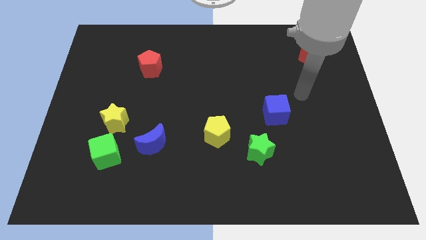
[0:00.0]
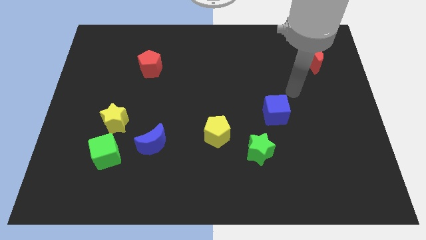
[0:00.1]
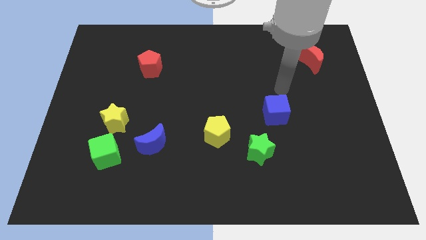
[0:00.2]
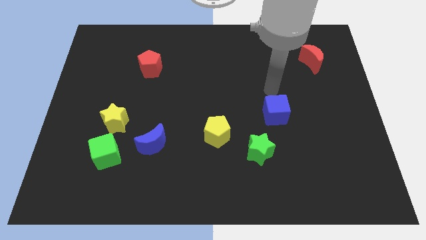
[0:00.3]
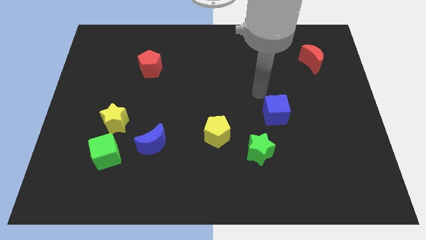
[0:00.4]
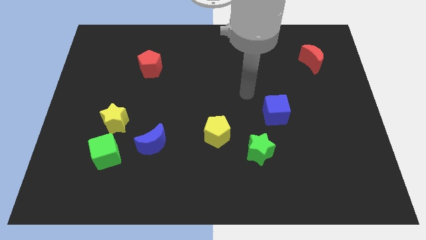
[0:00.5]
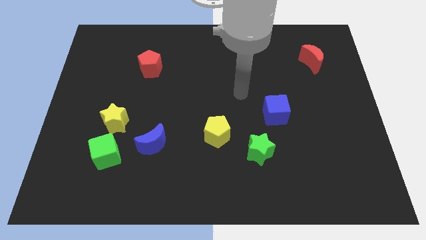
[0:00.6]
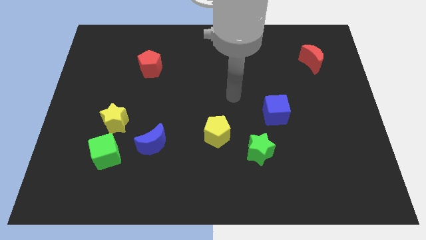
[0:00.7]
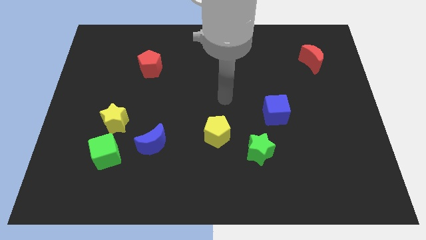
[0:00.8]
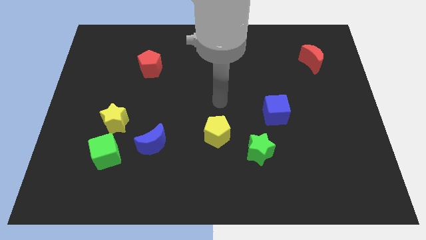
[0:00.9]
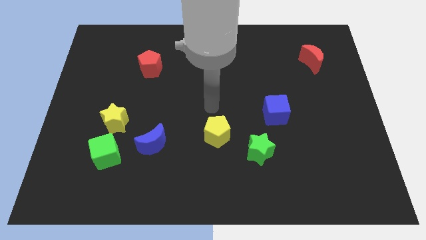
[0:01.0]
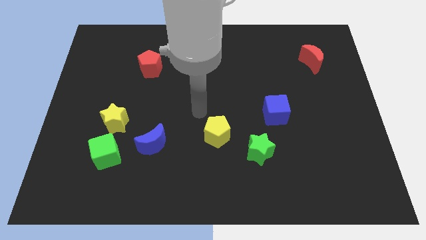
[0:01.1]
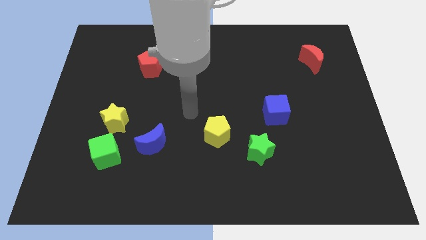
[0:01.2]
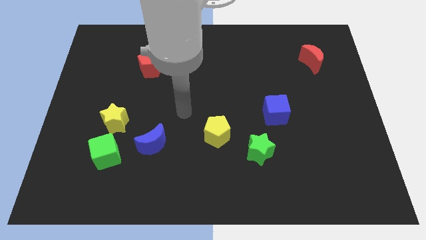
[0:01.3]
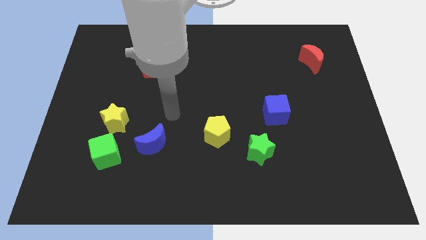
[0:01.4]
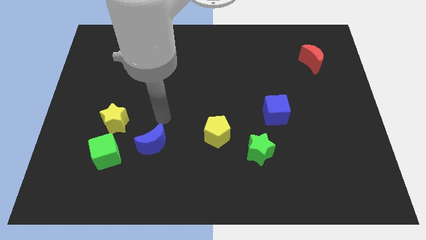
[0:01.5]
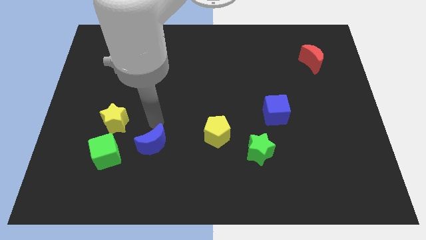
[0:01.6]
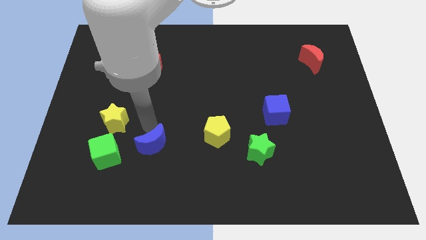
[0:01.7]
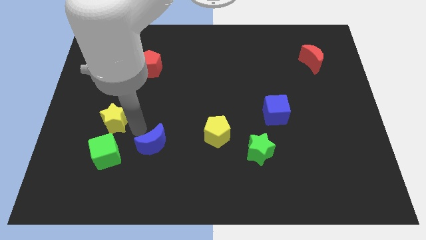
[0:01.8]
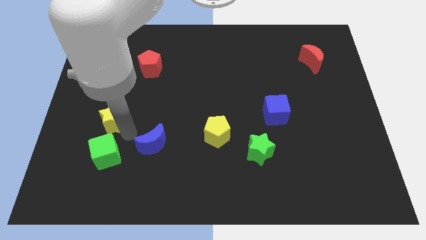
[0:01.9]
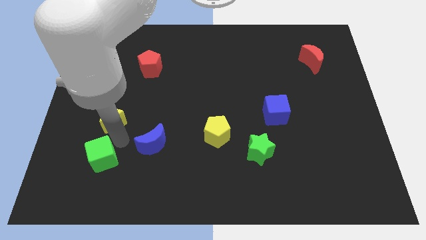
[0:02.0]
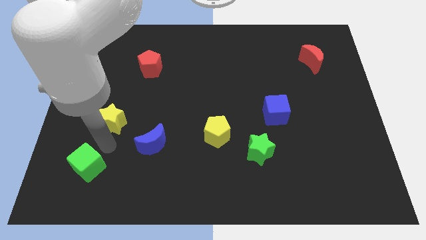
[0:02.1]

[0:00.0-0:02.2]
separate the yellow star from the green cube

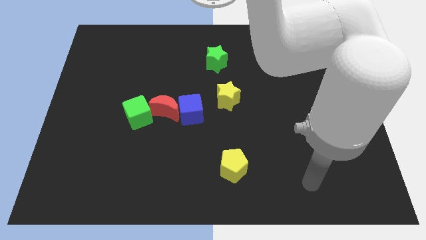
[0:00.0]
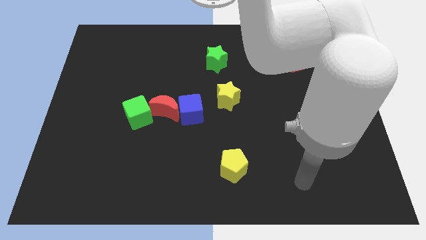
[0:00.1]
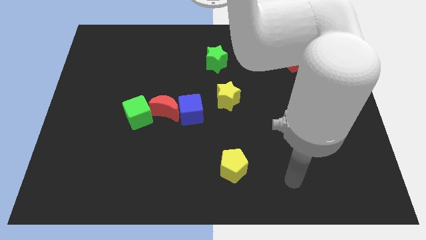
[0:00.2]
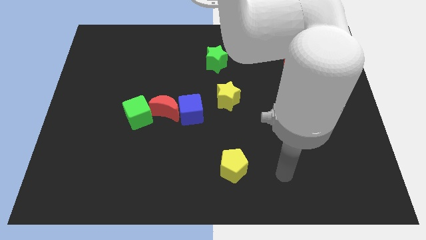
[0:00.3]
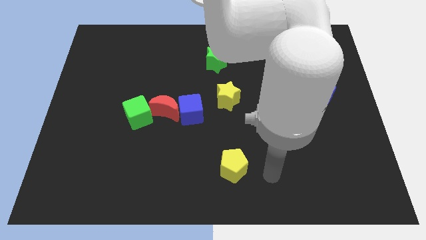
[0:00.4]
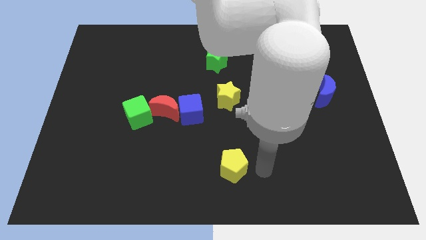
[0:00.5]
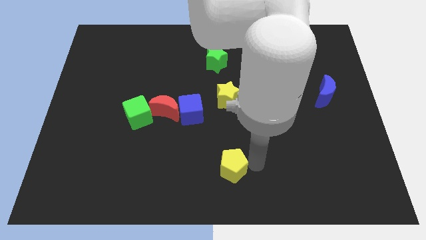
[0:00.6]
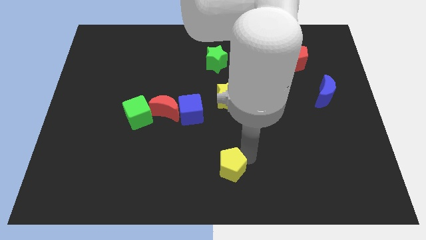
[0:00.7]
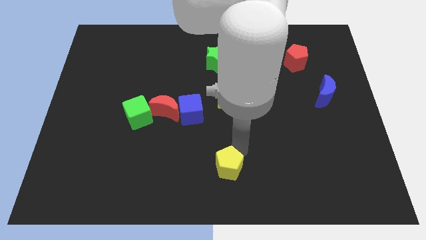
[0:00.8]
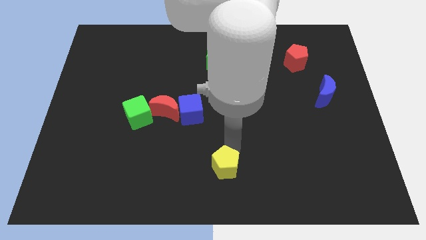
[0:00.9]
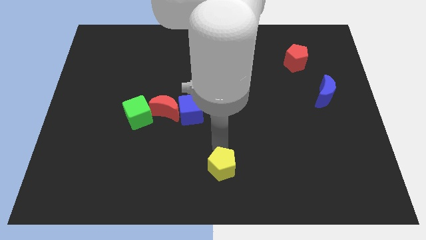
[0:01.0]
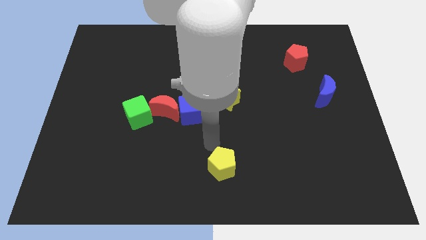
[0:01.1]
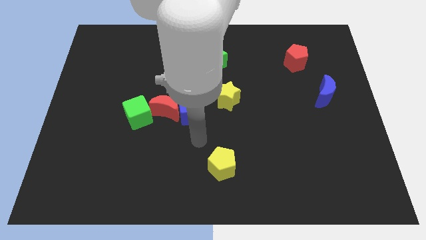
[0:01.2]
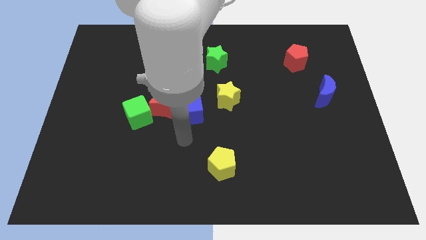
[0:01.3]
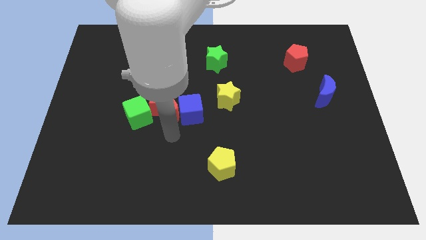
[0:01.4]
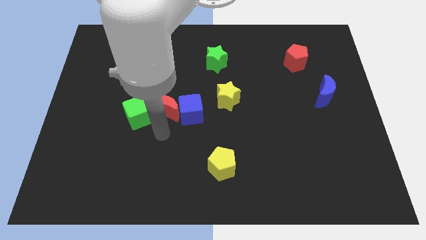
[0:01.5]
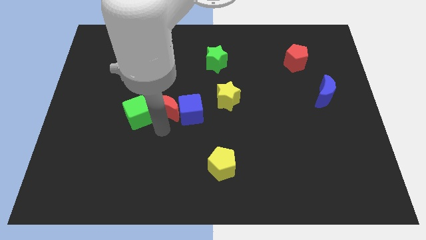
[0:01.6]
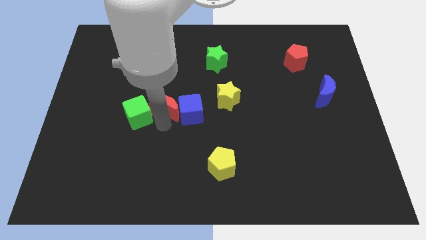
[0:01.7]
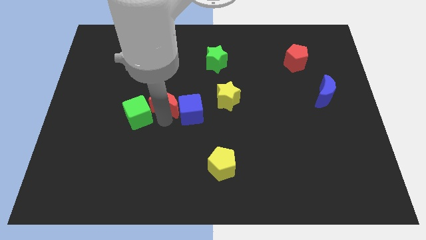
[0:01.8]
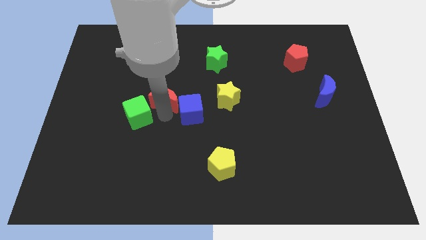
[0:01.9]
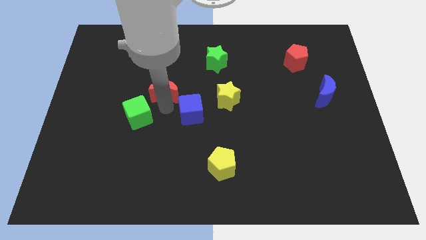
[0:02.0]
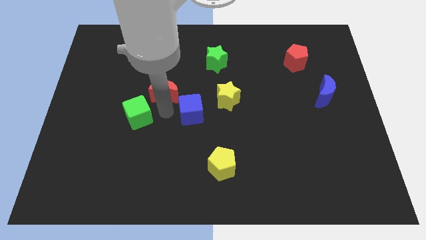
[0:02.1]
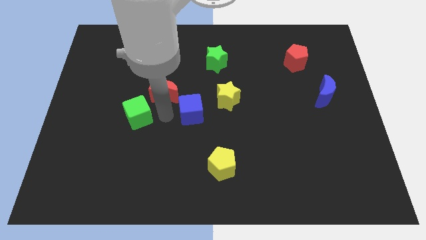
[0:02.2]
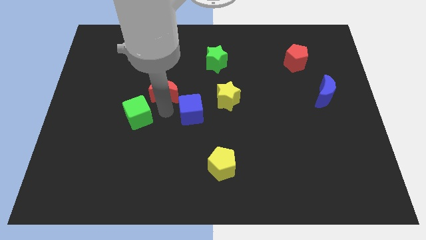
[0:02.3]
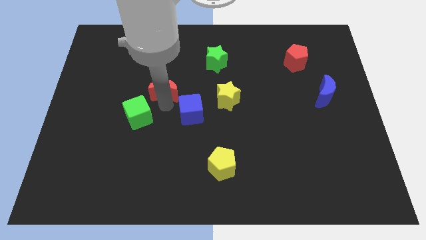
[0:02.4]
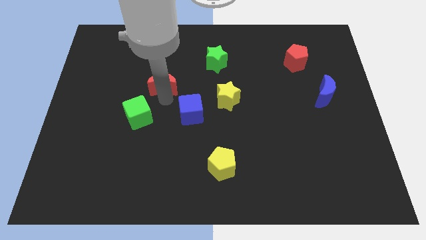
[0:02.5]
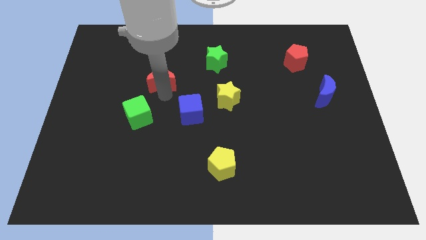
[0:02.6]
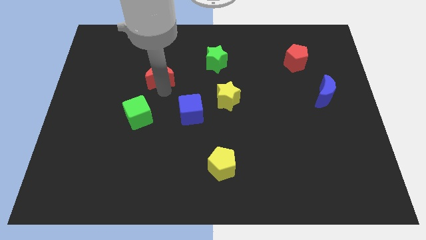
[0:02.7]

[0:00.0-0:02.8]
move the red moon away from the blue cube and green cube

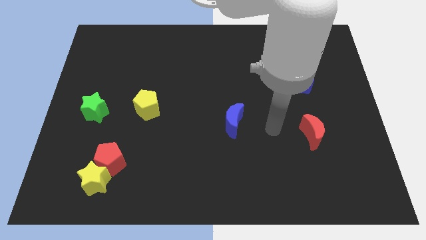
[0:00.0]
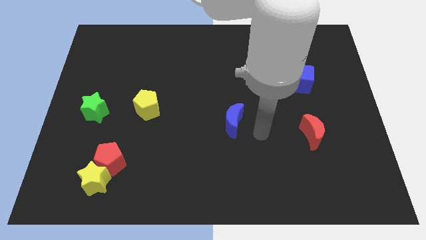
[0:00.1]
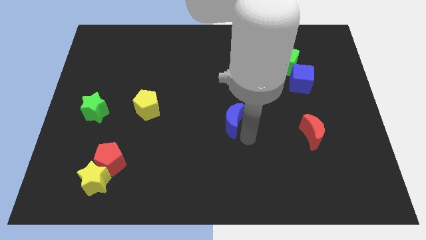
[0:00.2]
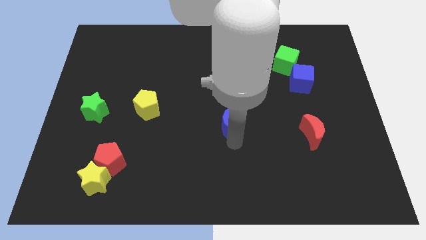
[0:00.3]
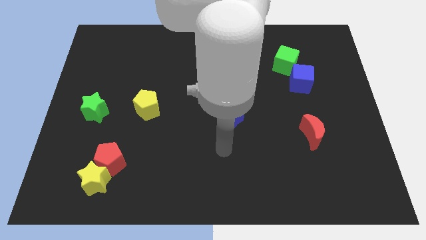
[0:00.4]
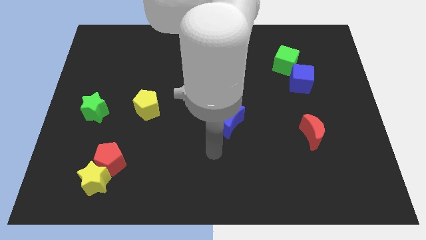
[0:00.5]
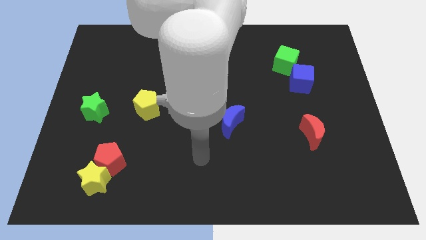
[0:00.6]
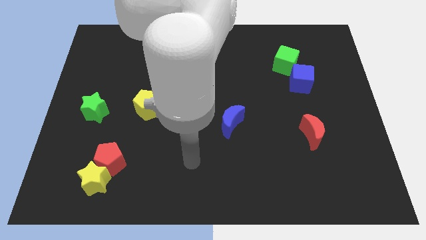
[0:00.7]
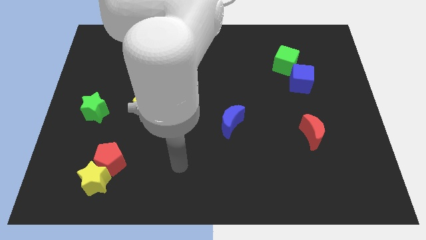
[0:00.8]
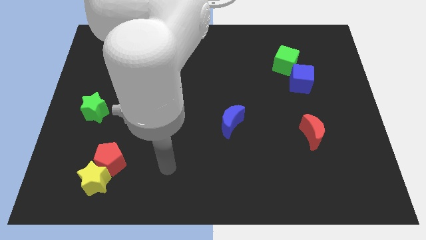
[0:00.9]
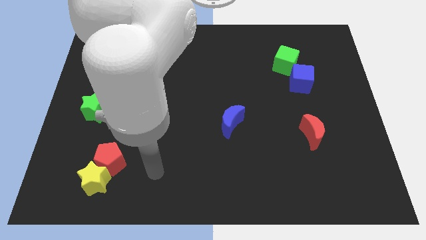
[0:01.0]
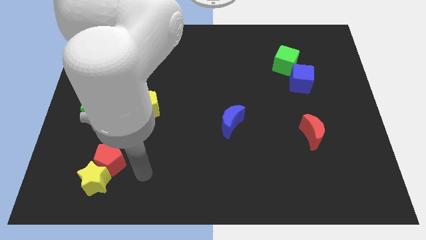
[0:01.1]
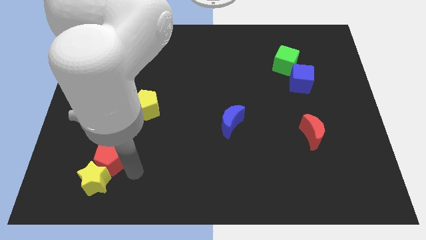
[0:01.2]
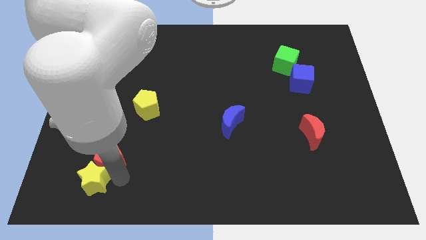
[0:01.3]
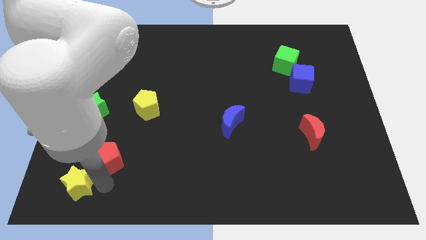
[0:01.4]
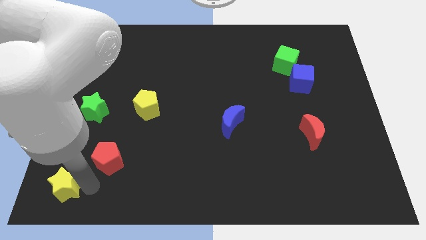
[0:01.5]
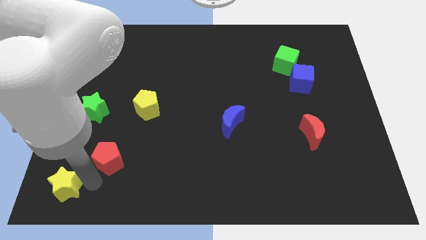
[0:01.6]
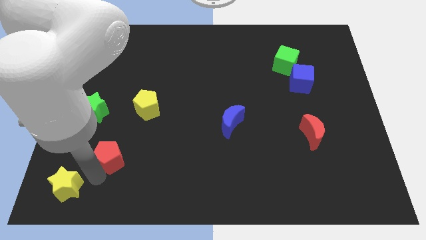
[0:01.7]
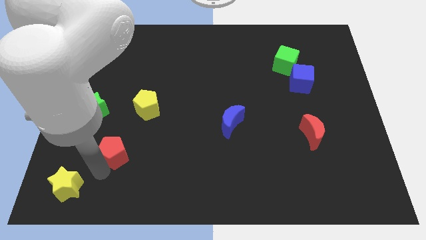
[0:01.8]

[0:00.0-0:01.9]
separate the red pentagon from the yellow star

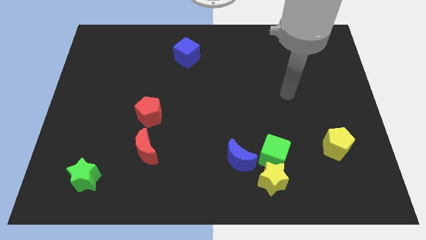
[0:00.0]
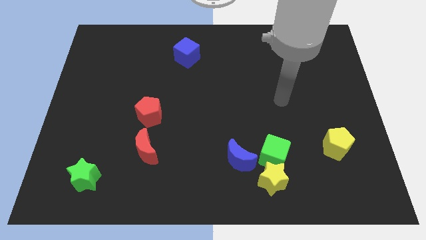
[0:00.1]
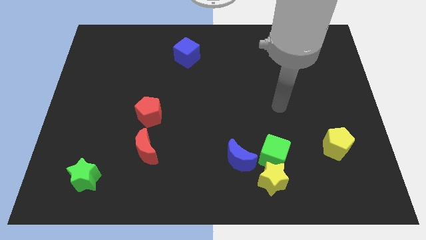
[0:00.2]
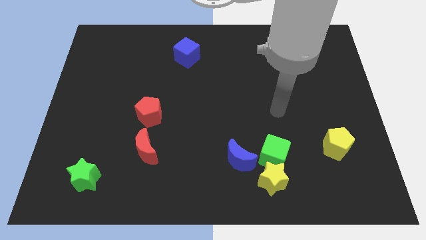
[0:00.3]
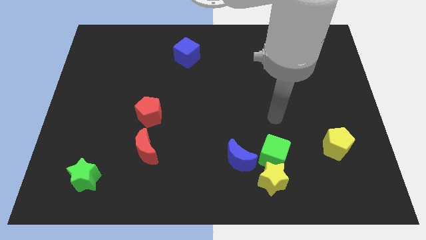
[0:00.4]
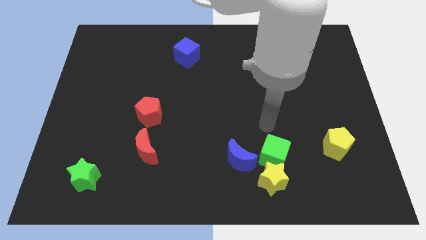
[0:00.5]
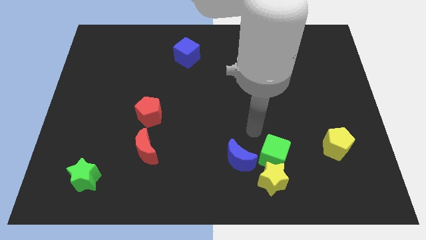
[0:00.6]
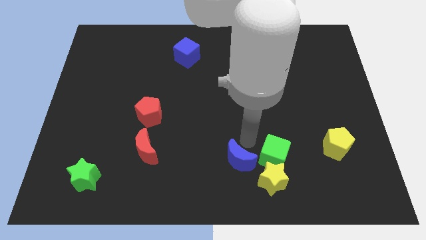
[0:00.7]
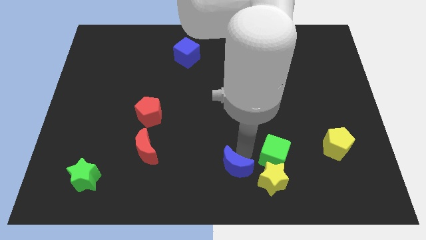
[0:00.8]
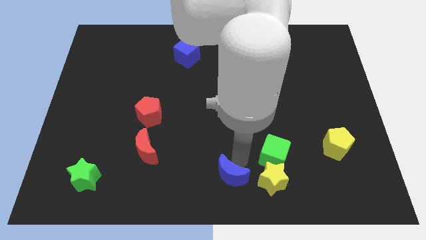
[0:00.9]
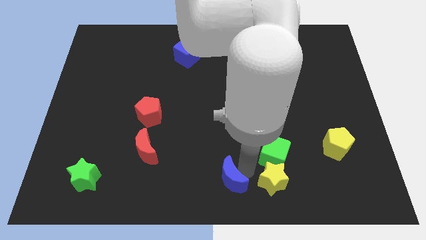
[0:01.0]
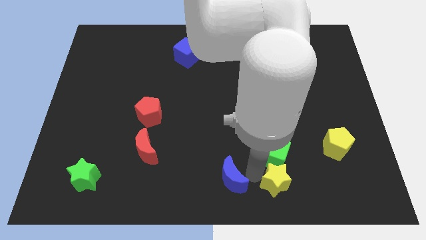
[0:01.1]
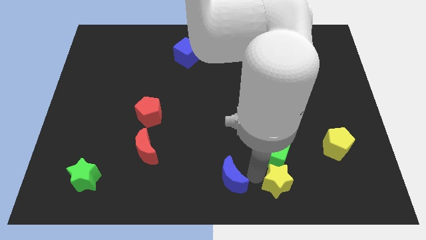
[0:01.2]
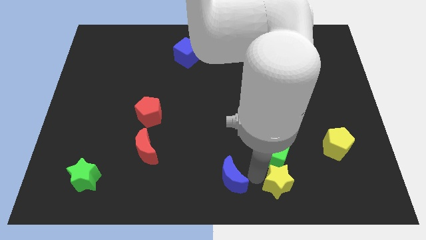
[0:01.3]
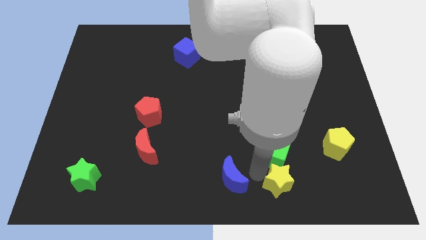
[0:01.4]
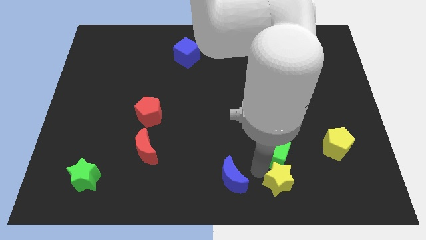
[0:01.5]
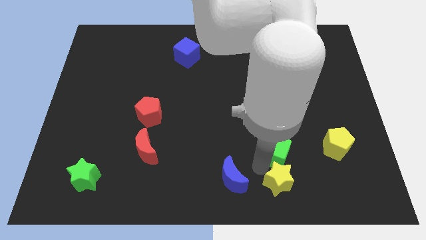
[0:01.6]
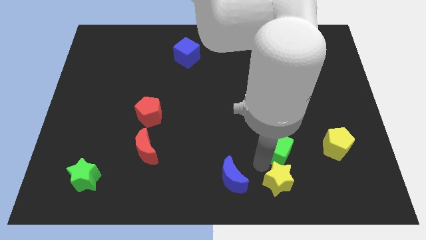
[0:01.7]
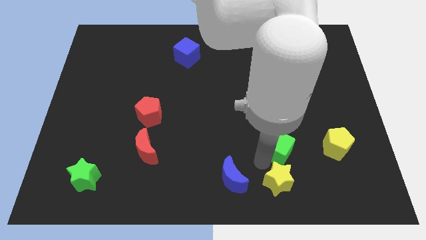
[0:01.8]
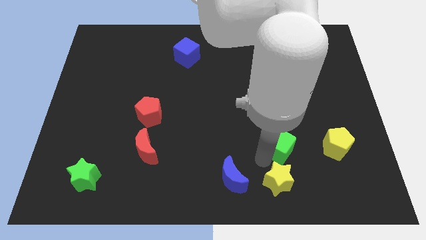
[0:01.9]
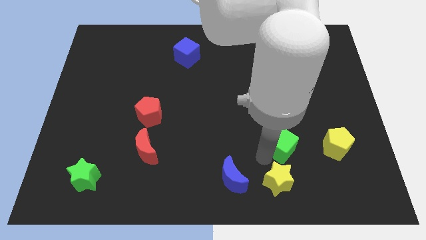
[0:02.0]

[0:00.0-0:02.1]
move the green cube away from the yellow star and blue moon

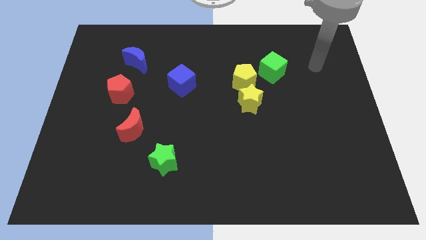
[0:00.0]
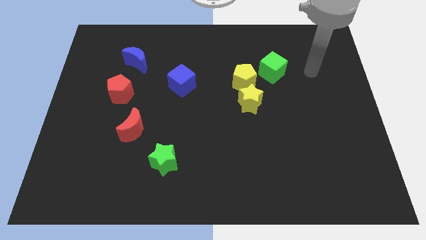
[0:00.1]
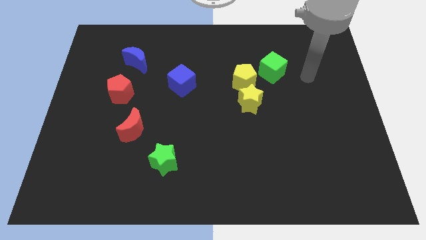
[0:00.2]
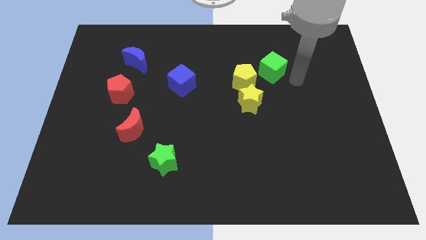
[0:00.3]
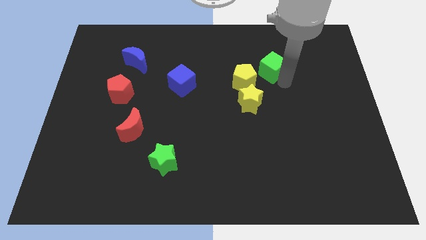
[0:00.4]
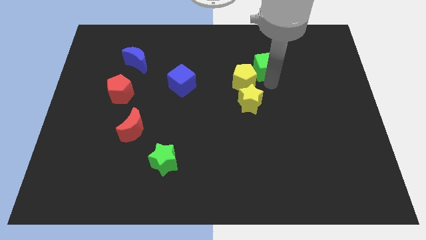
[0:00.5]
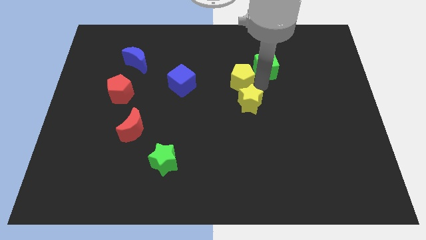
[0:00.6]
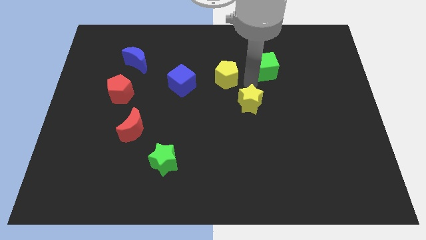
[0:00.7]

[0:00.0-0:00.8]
separate the yellow star from the yellow pentagon
